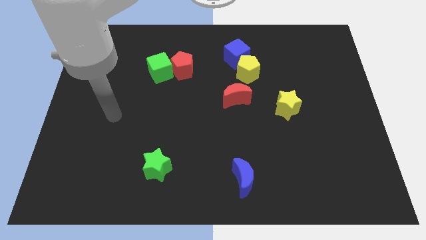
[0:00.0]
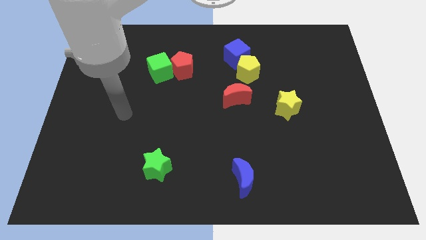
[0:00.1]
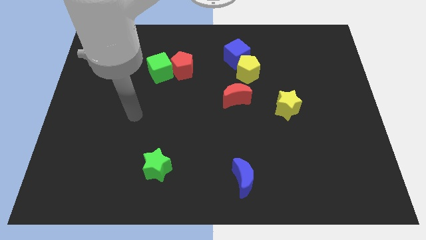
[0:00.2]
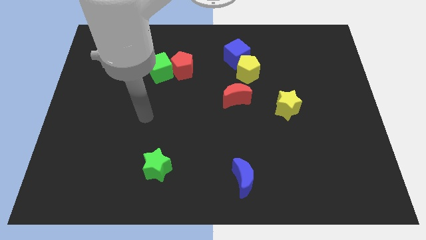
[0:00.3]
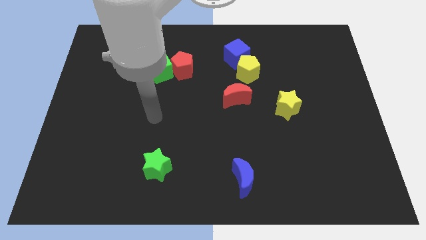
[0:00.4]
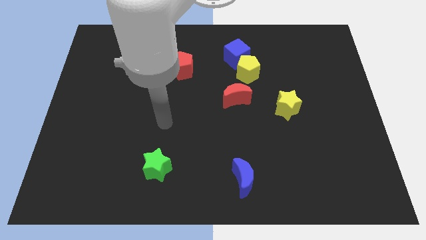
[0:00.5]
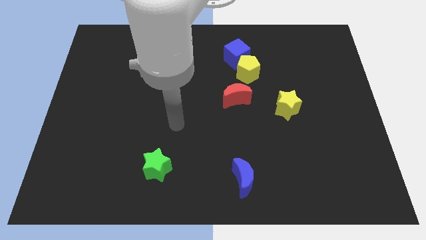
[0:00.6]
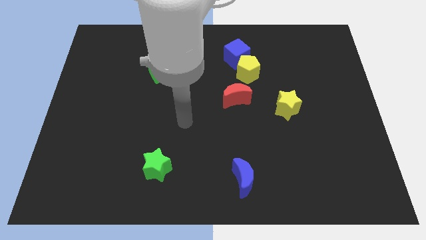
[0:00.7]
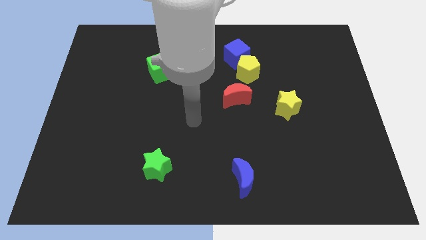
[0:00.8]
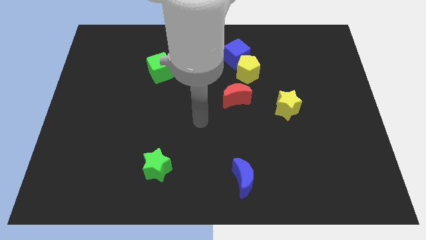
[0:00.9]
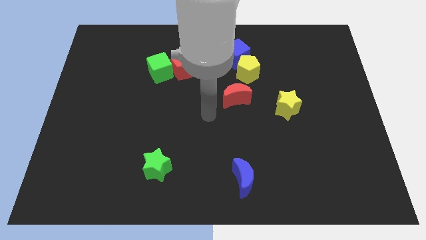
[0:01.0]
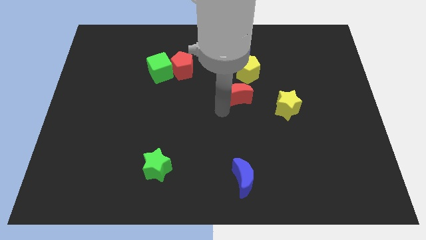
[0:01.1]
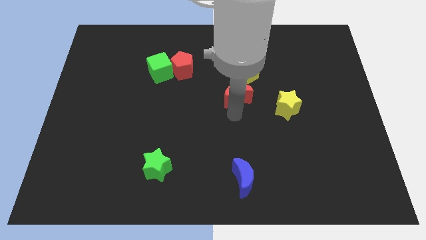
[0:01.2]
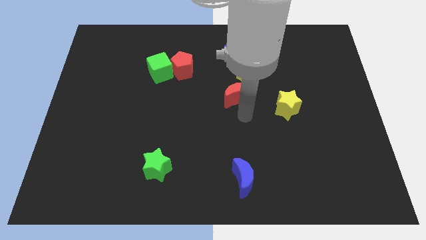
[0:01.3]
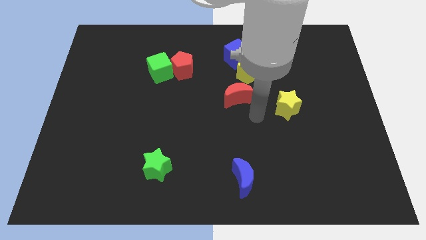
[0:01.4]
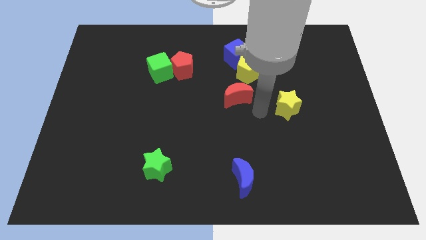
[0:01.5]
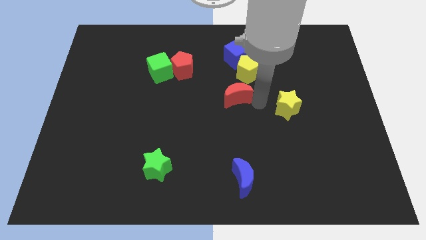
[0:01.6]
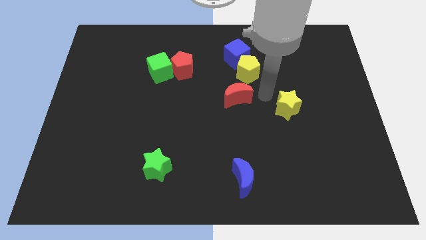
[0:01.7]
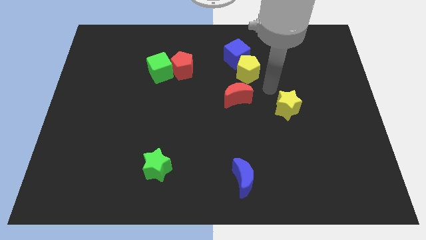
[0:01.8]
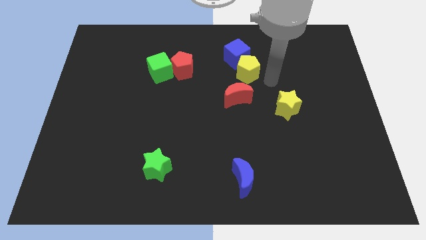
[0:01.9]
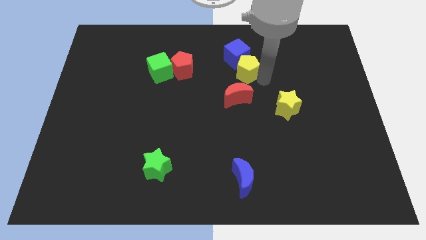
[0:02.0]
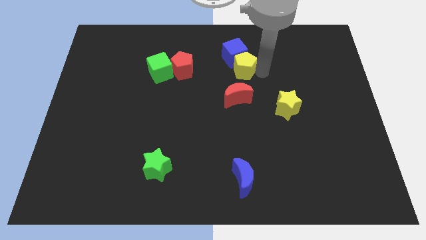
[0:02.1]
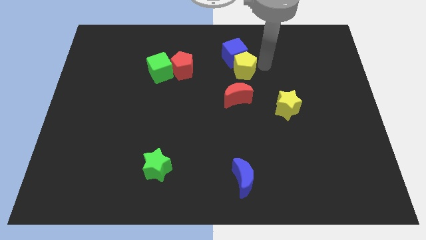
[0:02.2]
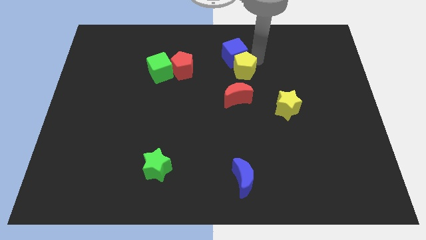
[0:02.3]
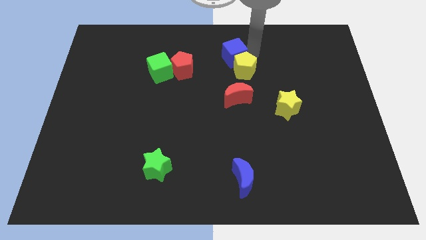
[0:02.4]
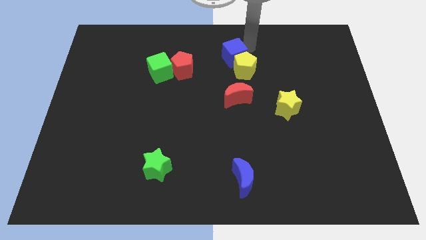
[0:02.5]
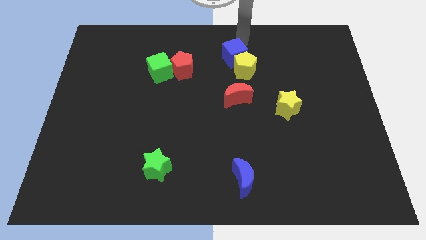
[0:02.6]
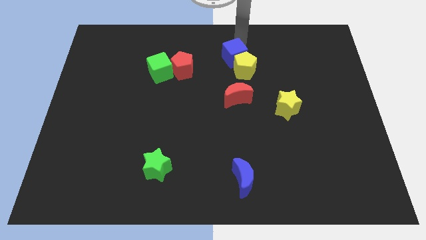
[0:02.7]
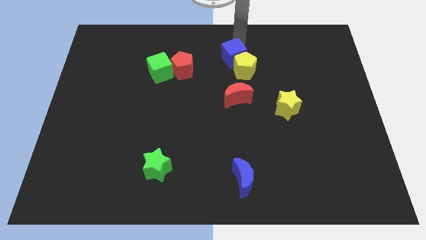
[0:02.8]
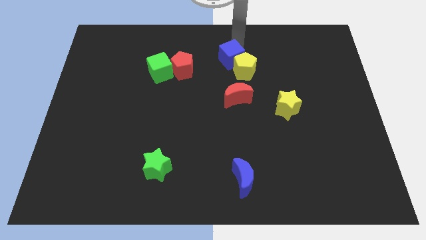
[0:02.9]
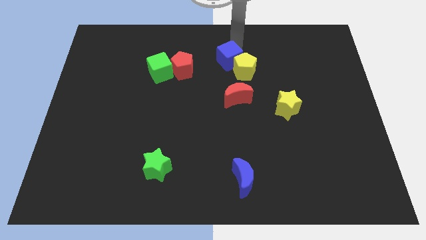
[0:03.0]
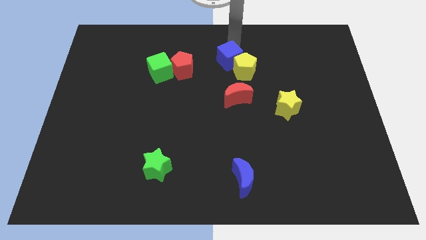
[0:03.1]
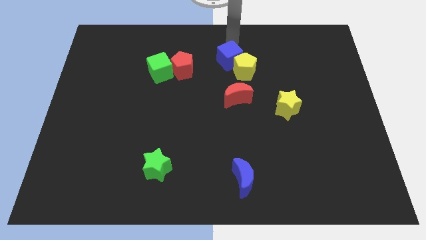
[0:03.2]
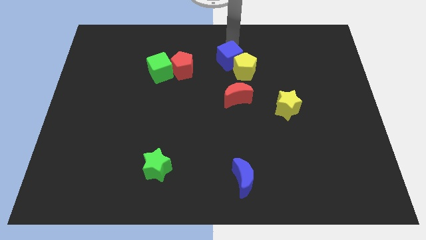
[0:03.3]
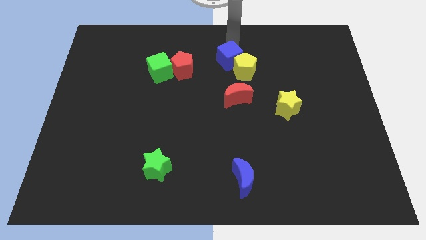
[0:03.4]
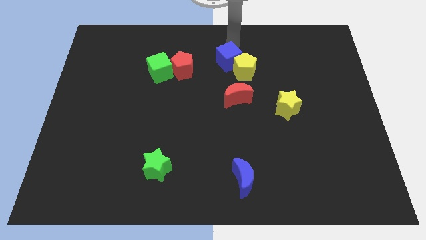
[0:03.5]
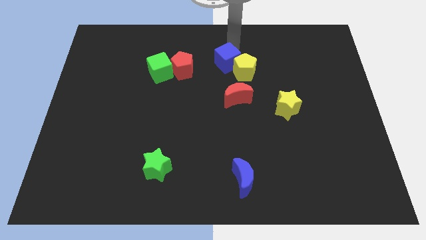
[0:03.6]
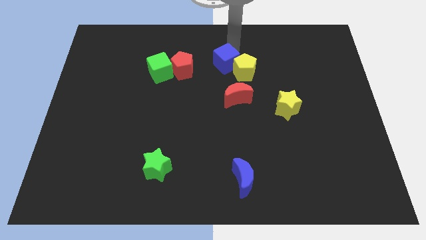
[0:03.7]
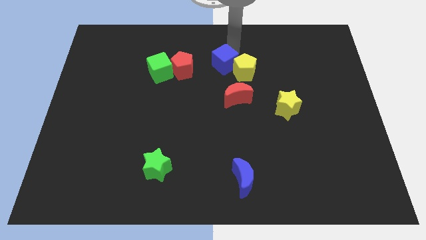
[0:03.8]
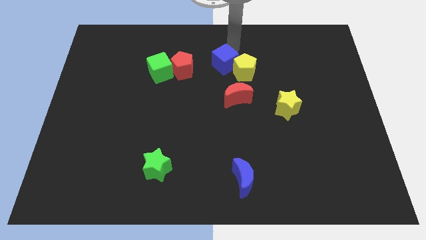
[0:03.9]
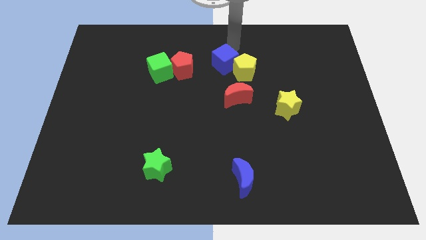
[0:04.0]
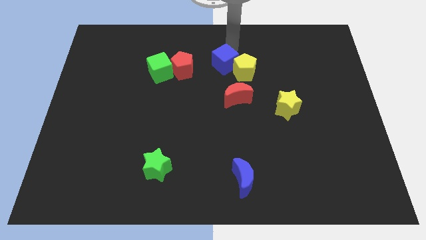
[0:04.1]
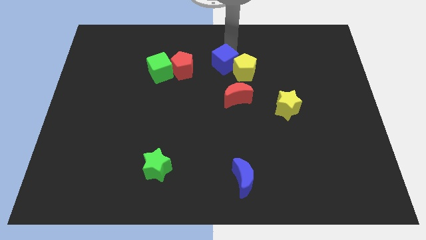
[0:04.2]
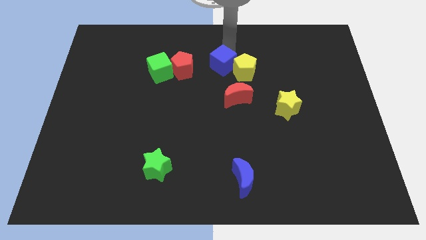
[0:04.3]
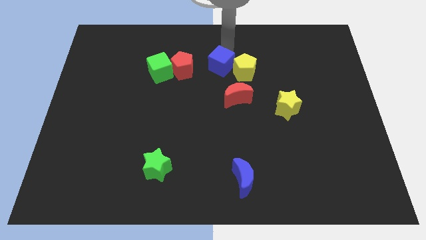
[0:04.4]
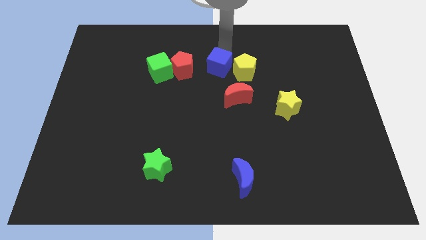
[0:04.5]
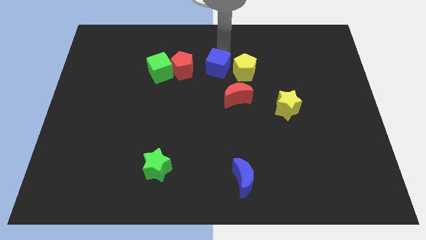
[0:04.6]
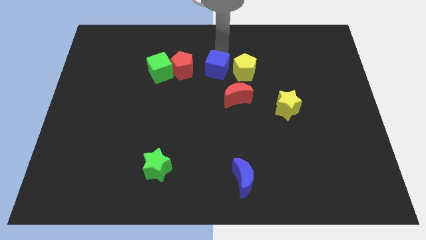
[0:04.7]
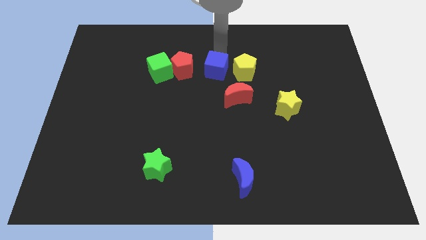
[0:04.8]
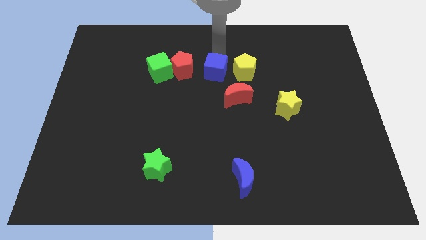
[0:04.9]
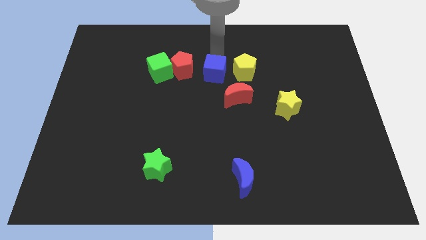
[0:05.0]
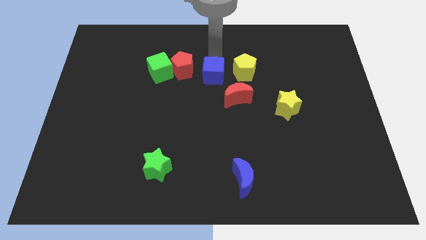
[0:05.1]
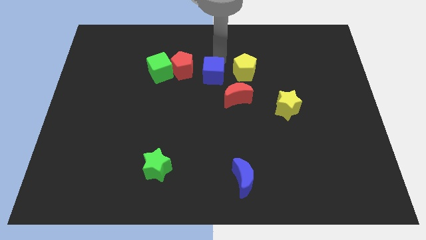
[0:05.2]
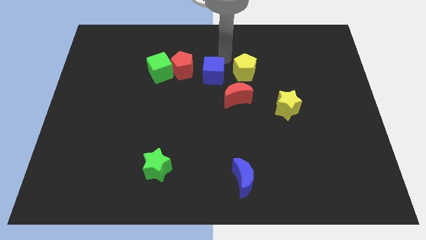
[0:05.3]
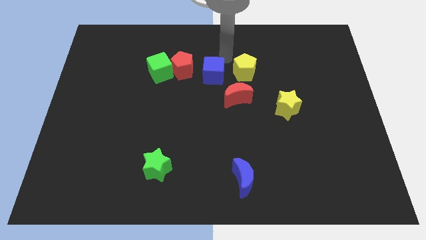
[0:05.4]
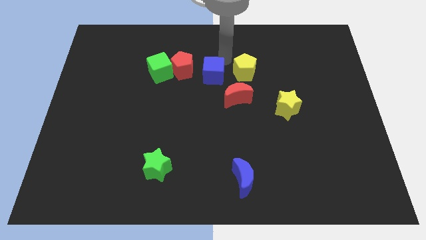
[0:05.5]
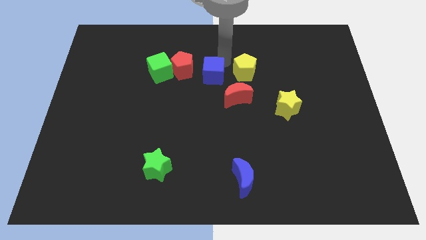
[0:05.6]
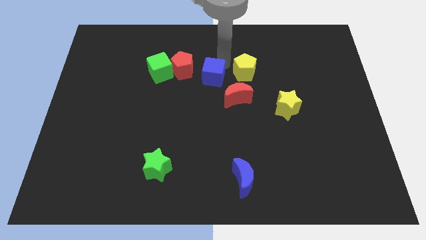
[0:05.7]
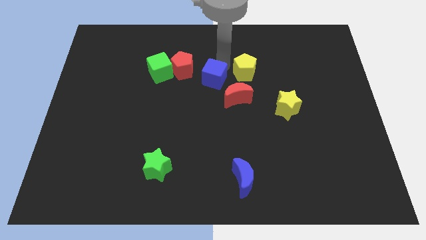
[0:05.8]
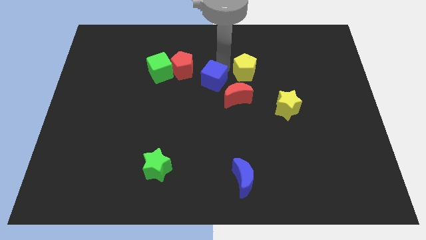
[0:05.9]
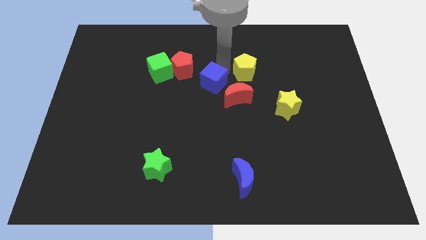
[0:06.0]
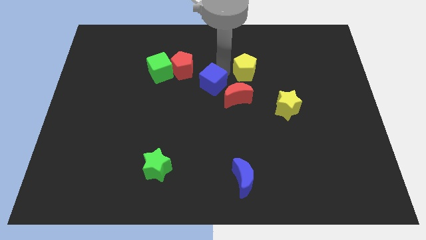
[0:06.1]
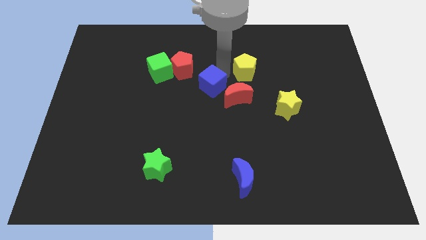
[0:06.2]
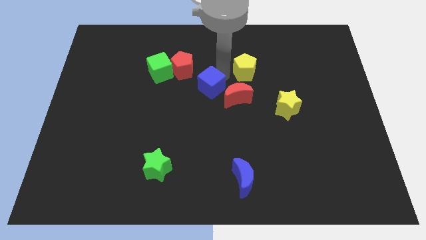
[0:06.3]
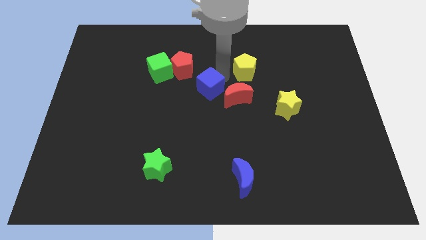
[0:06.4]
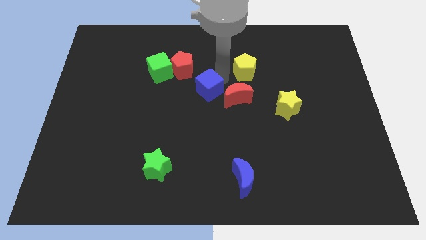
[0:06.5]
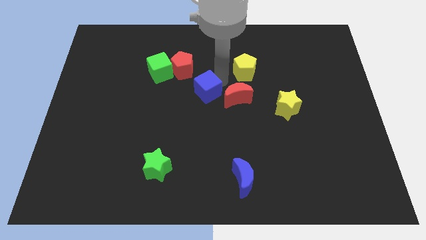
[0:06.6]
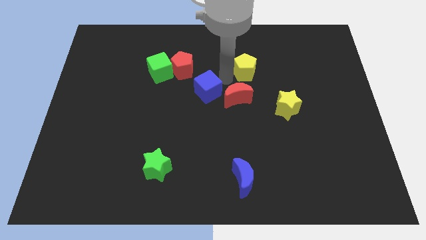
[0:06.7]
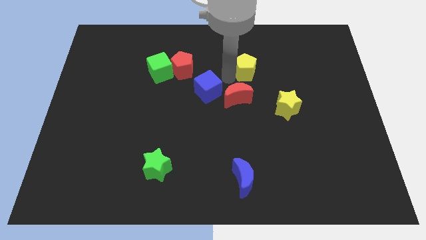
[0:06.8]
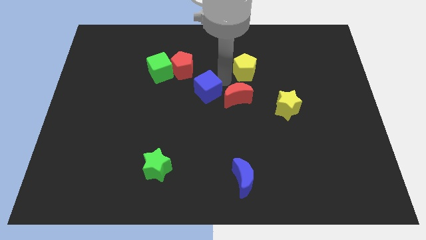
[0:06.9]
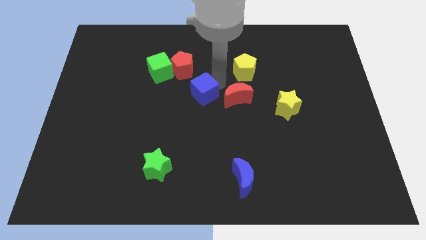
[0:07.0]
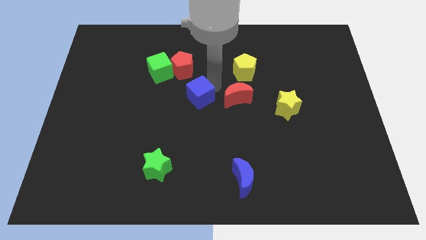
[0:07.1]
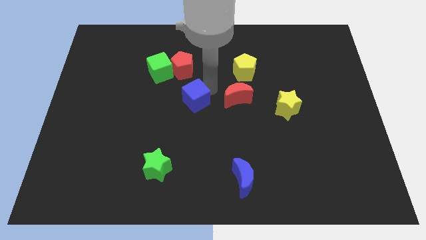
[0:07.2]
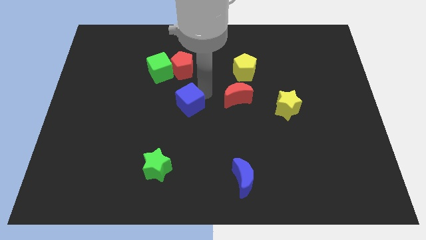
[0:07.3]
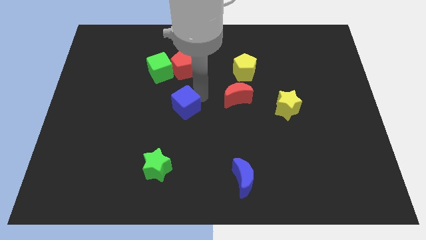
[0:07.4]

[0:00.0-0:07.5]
slide the blue cube down and then to the left

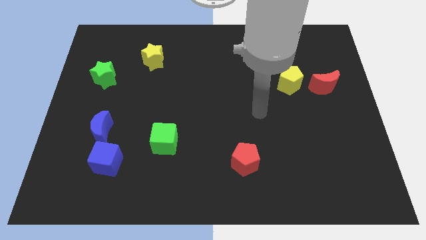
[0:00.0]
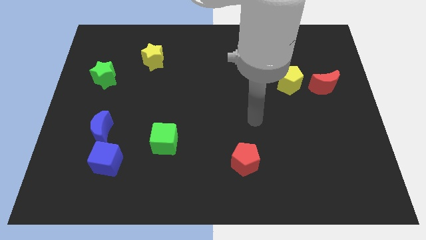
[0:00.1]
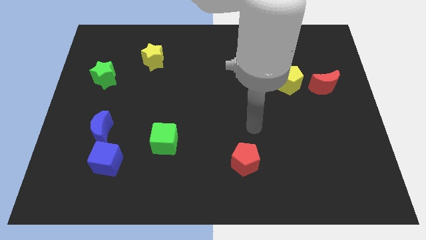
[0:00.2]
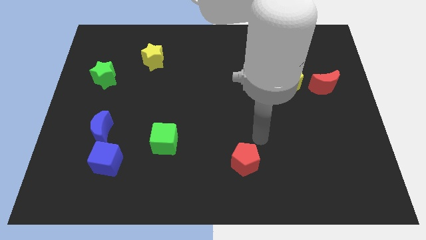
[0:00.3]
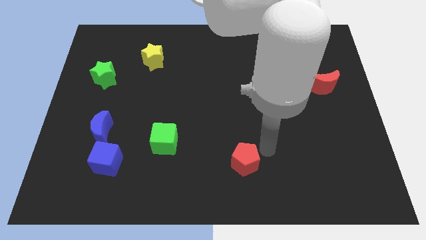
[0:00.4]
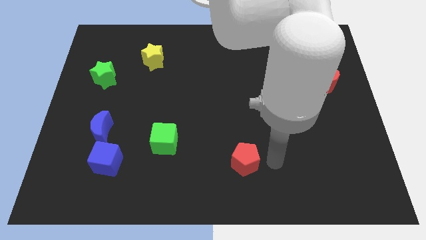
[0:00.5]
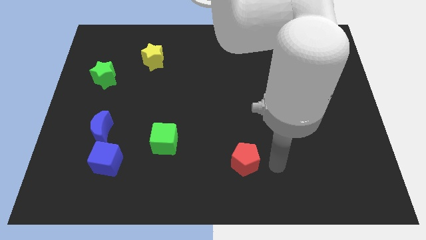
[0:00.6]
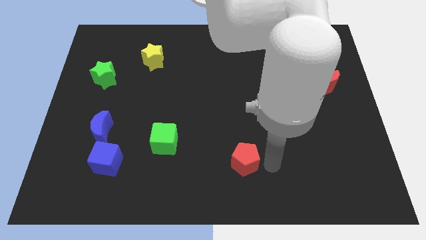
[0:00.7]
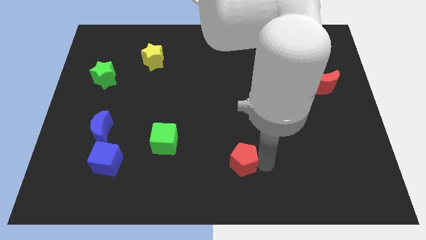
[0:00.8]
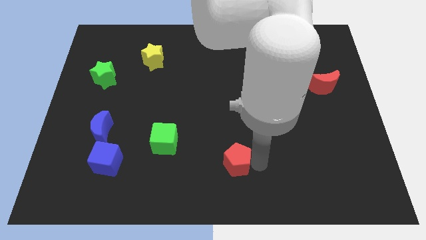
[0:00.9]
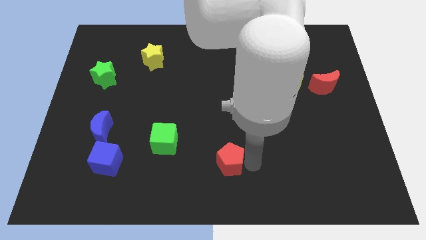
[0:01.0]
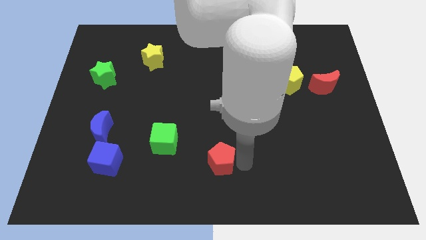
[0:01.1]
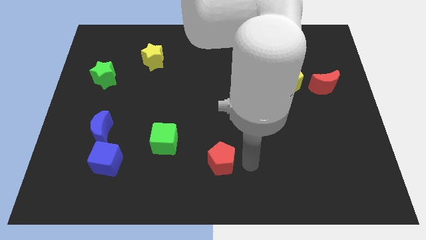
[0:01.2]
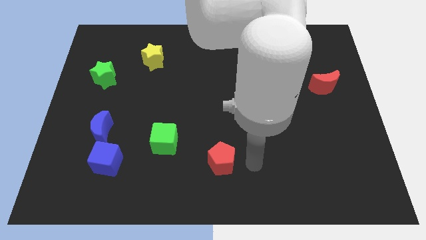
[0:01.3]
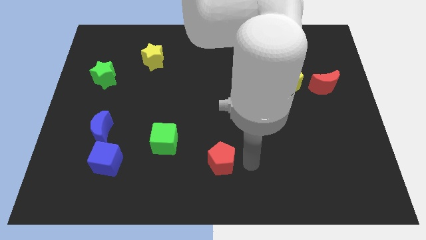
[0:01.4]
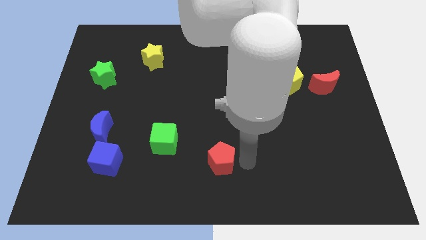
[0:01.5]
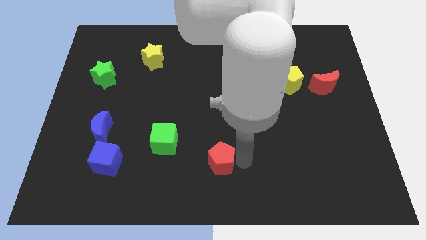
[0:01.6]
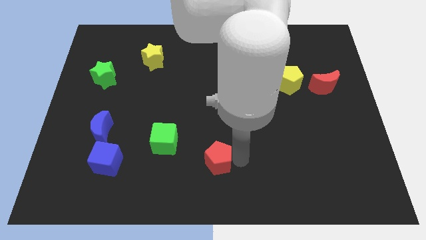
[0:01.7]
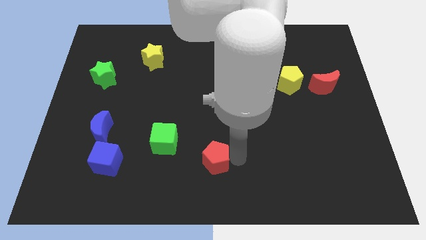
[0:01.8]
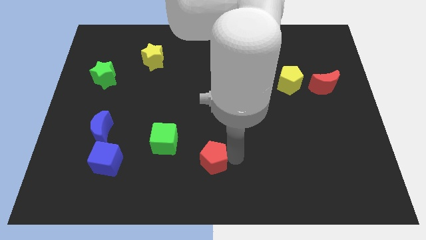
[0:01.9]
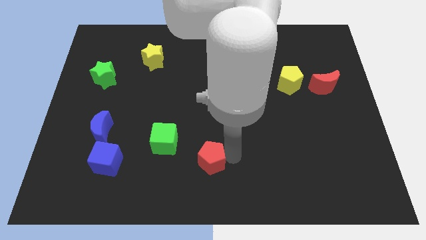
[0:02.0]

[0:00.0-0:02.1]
slide the red pentagon a bit to the left
